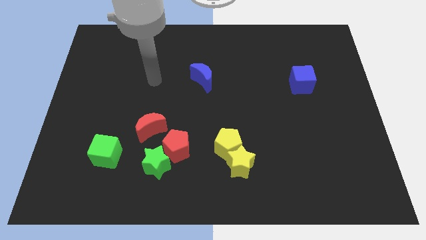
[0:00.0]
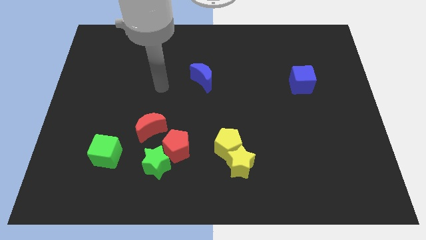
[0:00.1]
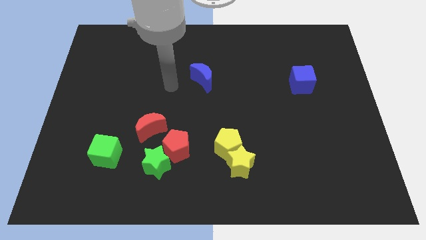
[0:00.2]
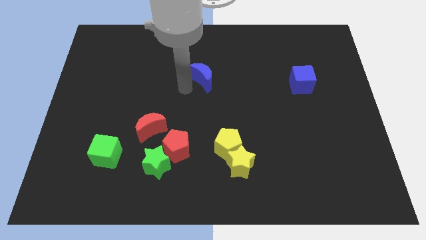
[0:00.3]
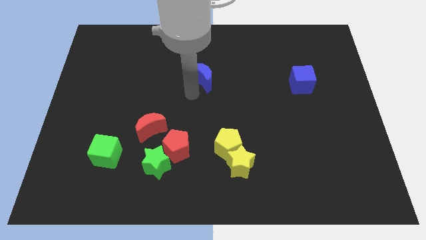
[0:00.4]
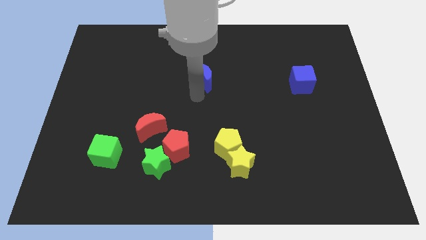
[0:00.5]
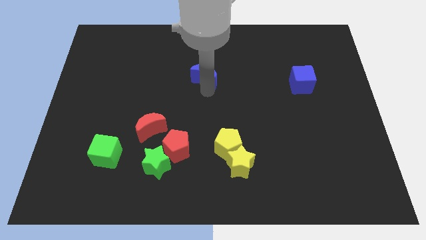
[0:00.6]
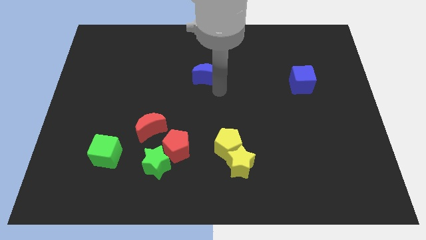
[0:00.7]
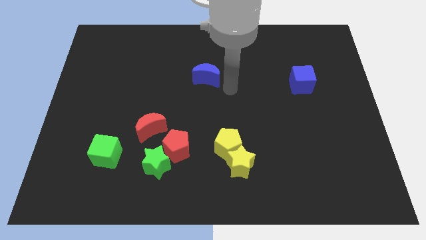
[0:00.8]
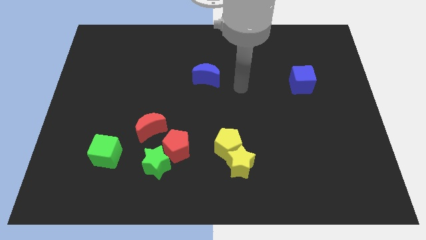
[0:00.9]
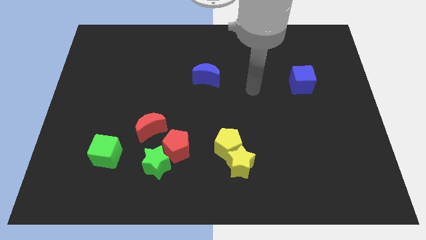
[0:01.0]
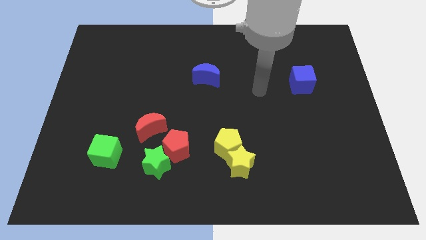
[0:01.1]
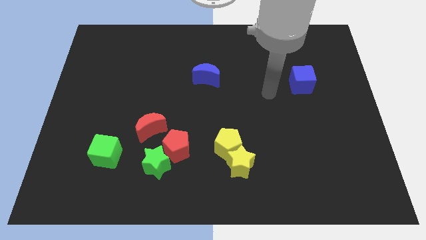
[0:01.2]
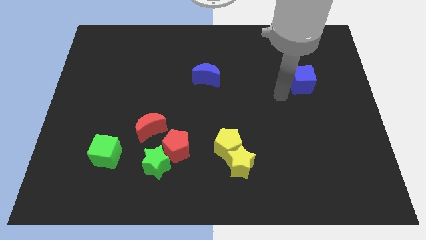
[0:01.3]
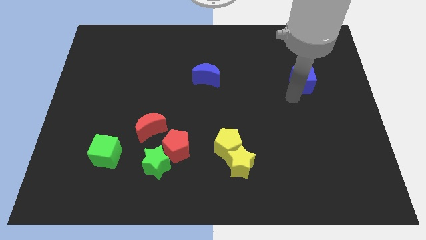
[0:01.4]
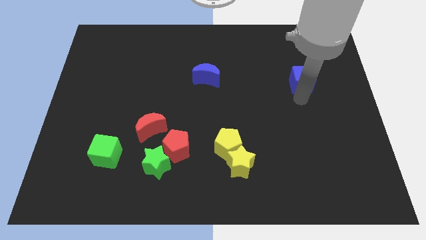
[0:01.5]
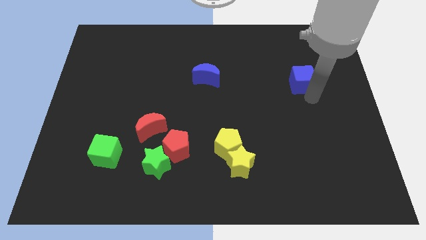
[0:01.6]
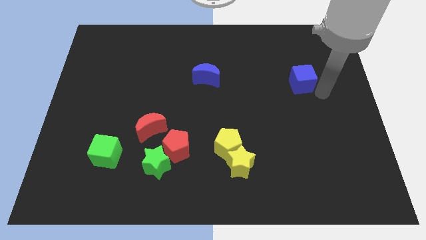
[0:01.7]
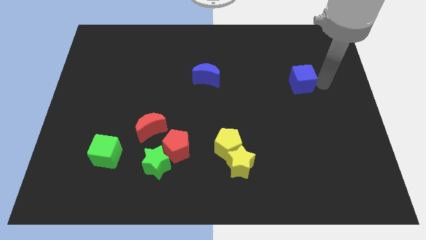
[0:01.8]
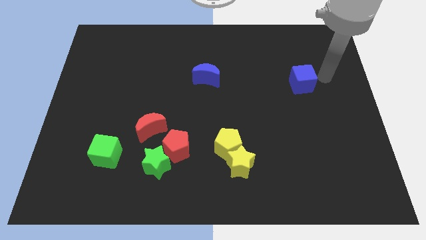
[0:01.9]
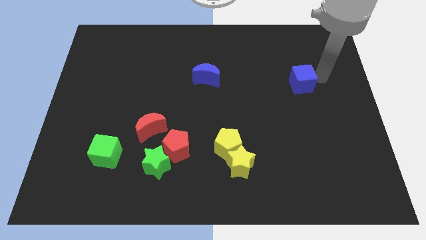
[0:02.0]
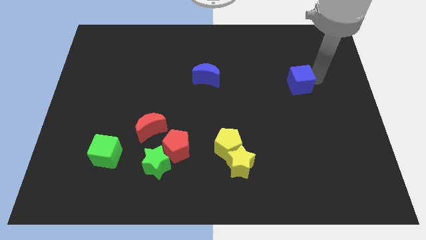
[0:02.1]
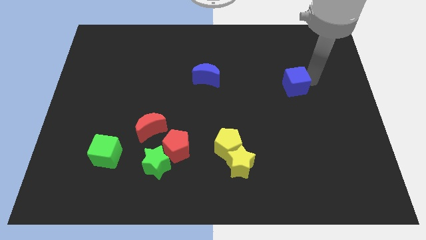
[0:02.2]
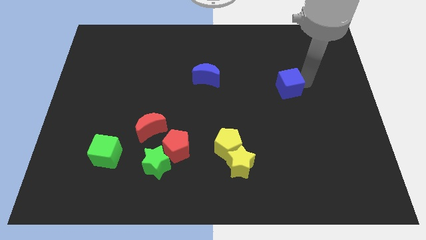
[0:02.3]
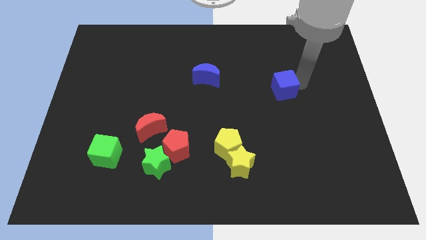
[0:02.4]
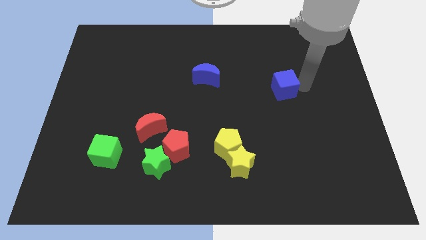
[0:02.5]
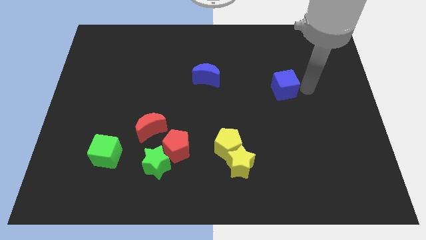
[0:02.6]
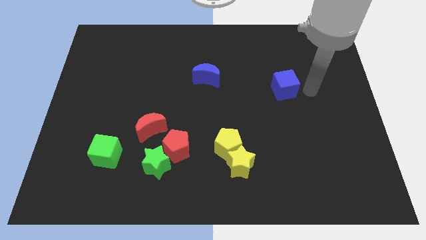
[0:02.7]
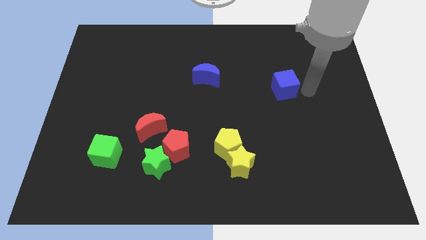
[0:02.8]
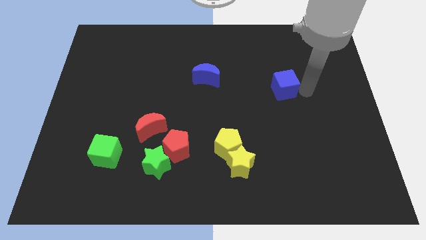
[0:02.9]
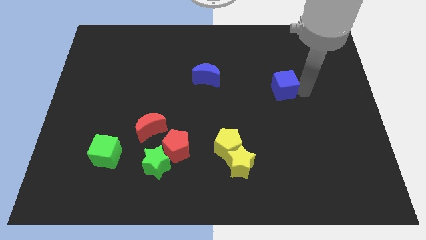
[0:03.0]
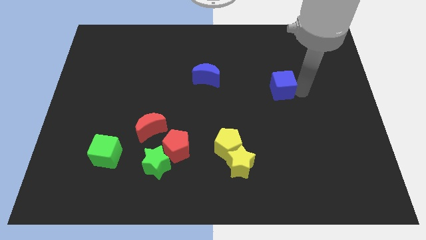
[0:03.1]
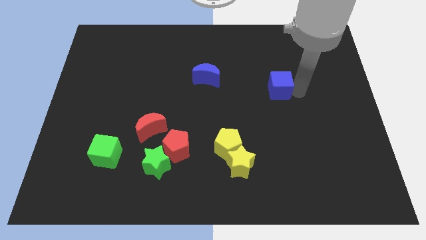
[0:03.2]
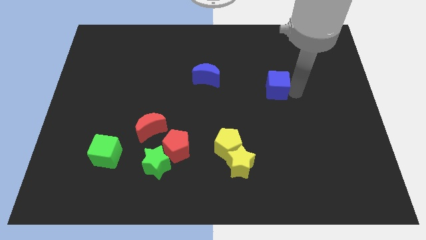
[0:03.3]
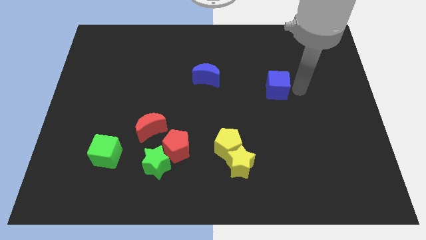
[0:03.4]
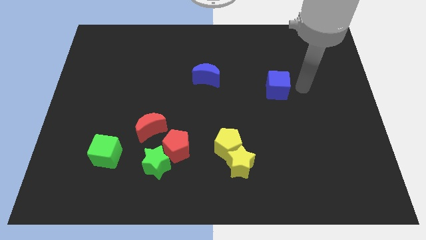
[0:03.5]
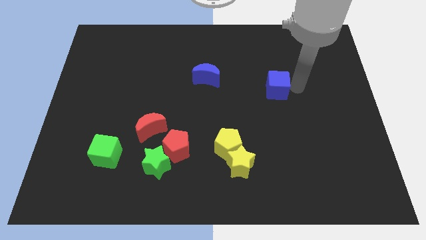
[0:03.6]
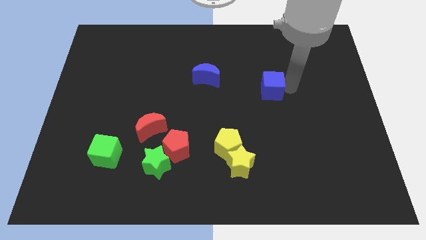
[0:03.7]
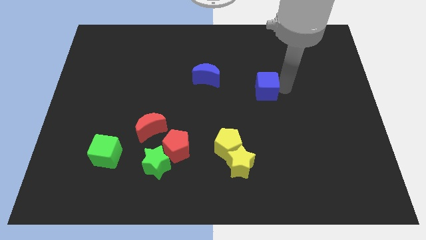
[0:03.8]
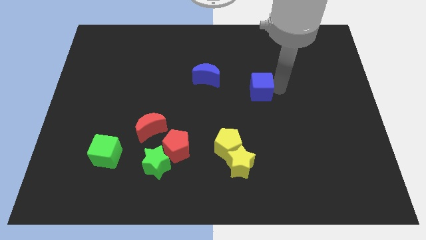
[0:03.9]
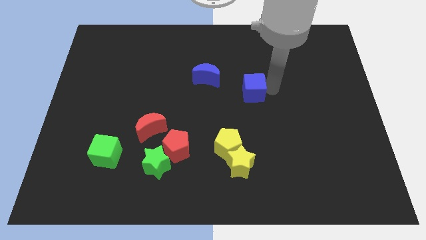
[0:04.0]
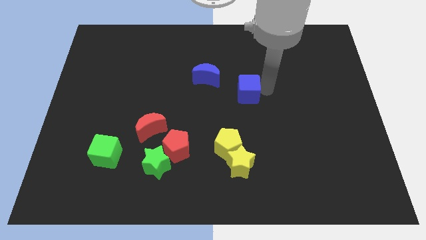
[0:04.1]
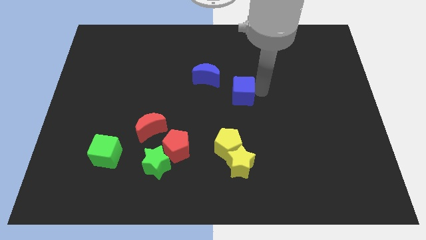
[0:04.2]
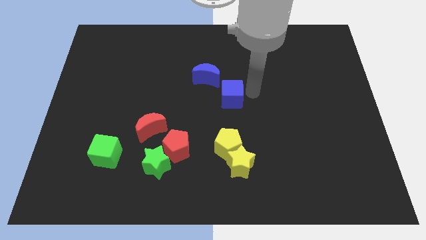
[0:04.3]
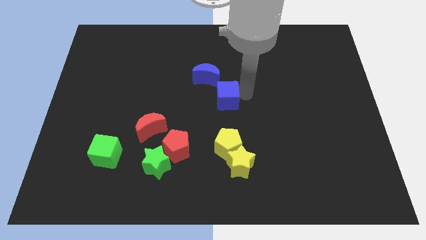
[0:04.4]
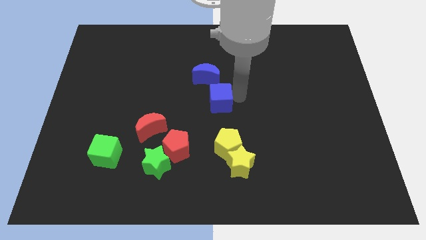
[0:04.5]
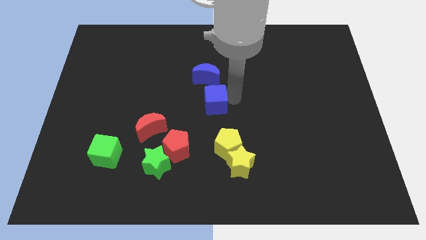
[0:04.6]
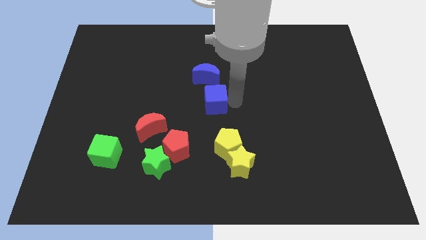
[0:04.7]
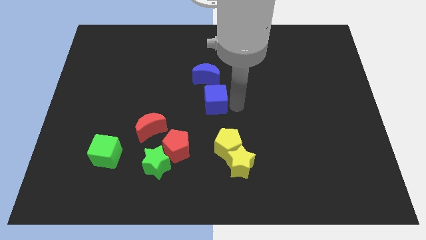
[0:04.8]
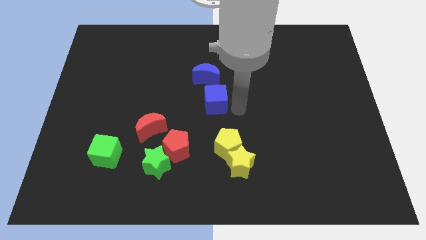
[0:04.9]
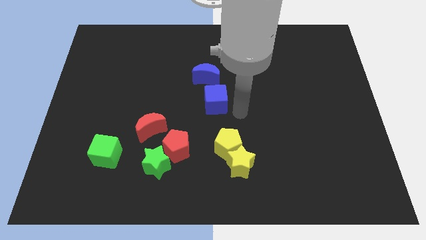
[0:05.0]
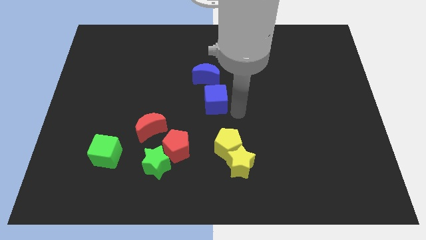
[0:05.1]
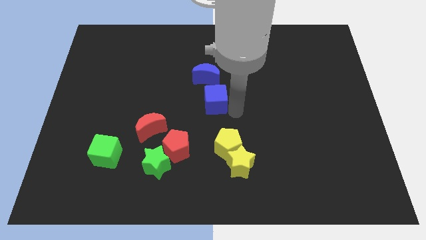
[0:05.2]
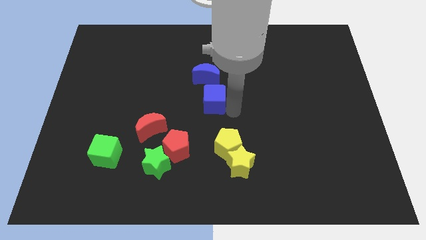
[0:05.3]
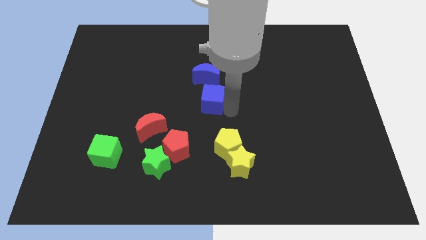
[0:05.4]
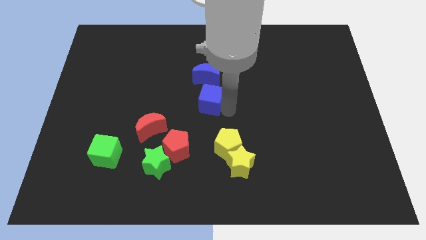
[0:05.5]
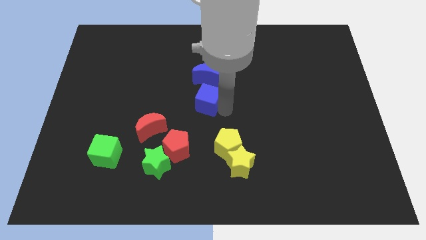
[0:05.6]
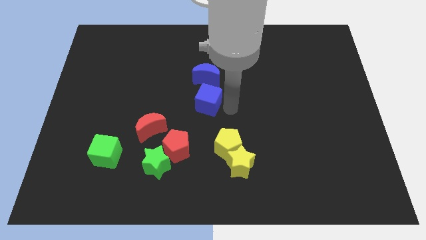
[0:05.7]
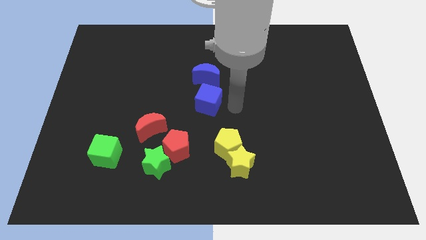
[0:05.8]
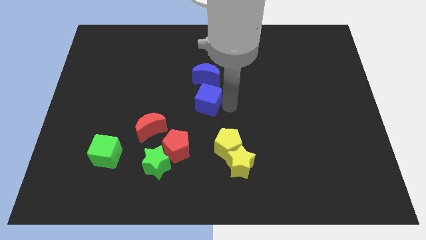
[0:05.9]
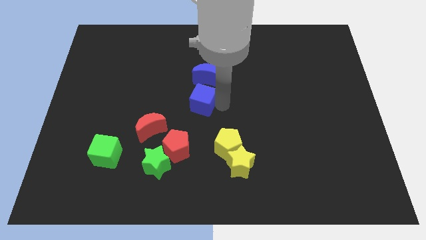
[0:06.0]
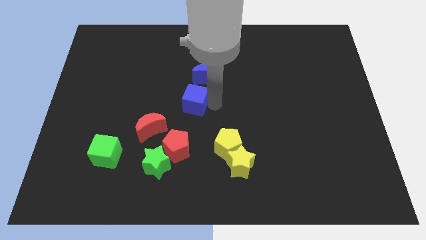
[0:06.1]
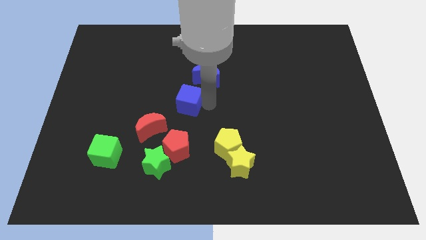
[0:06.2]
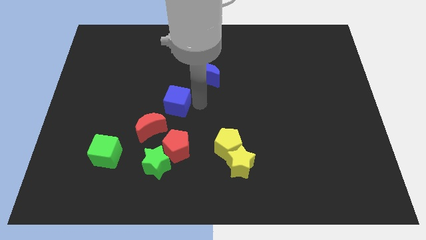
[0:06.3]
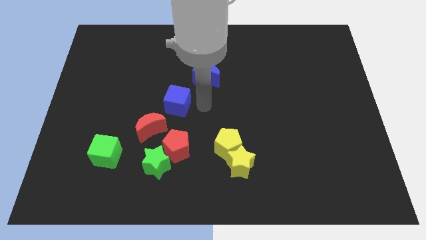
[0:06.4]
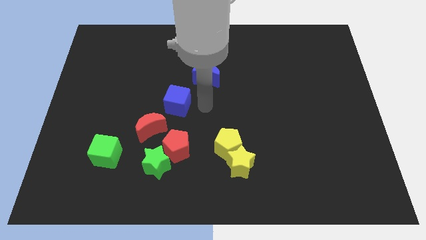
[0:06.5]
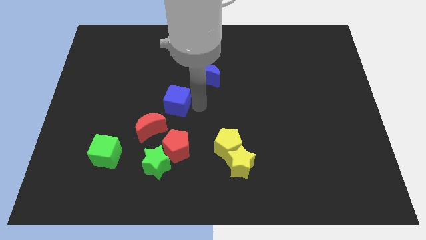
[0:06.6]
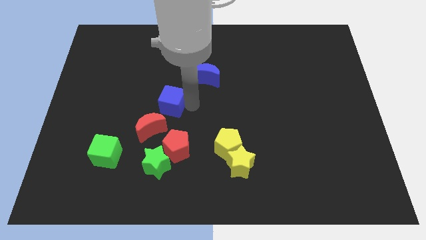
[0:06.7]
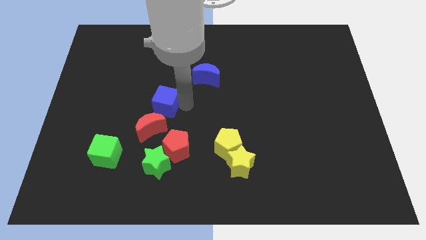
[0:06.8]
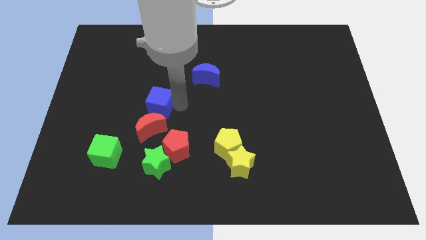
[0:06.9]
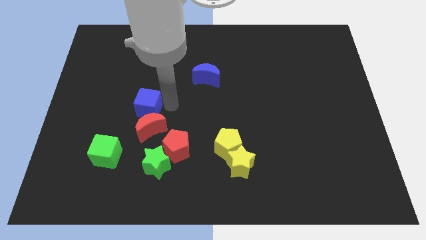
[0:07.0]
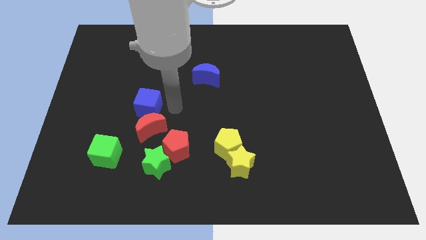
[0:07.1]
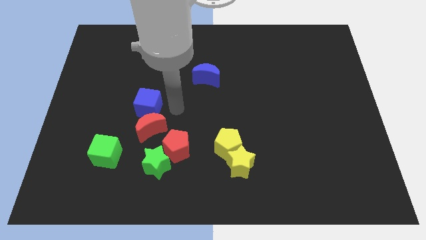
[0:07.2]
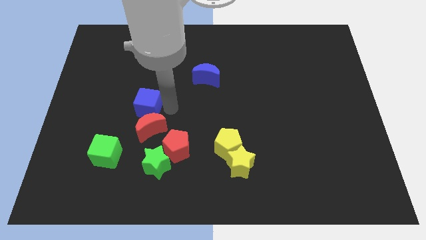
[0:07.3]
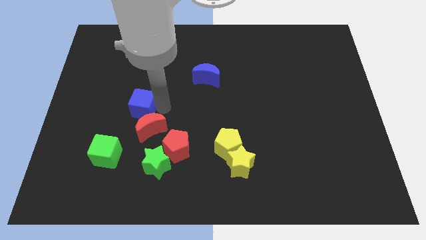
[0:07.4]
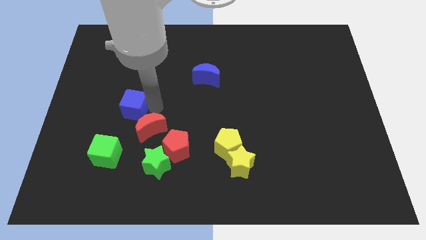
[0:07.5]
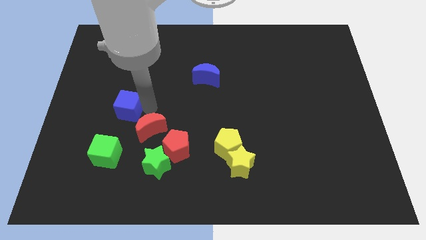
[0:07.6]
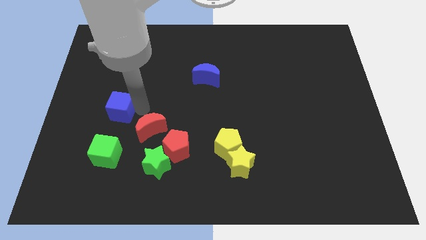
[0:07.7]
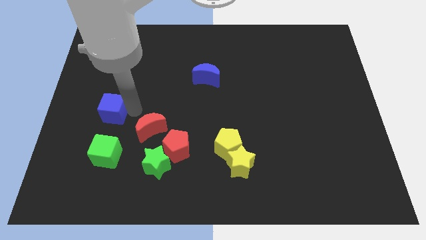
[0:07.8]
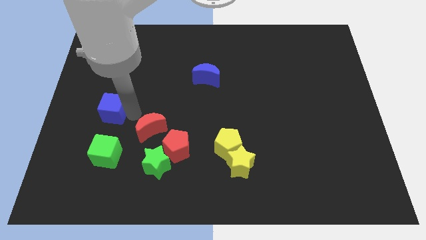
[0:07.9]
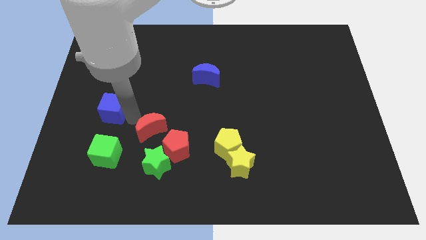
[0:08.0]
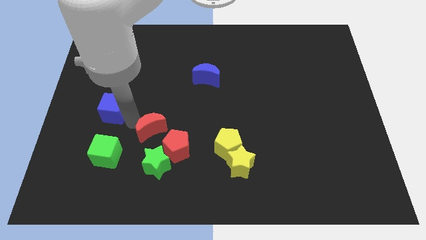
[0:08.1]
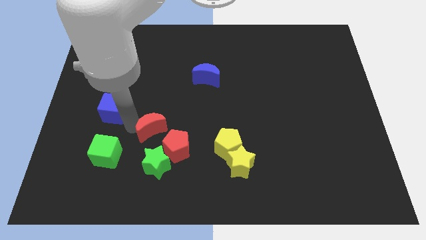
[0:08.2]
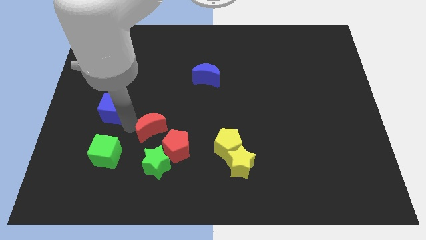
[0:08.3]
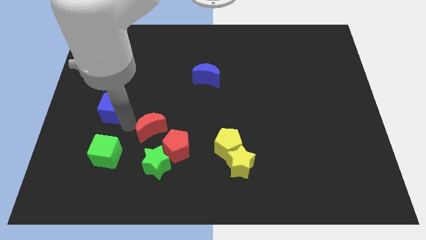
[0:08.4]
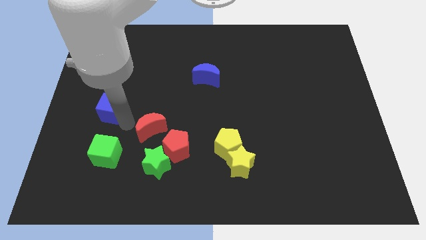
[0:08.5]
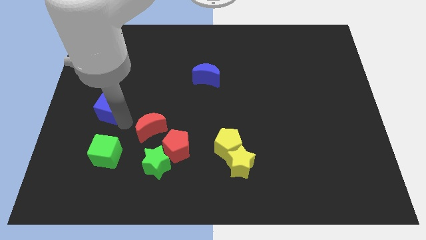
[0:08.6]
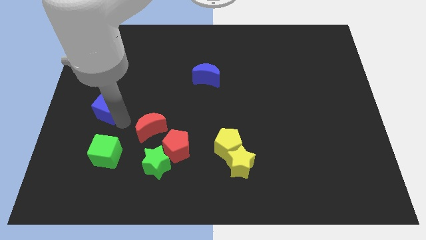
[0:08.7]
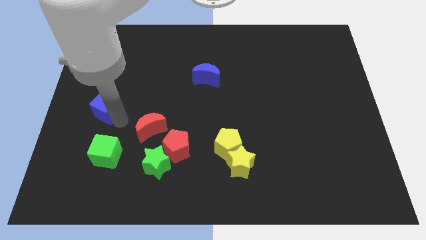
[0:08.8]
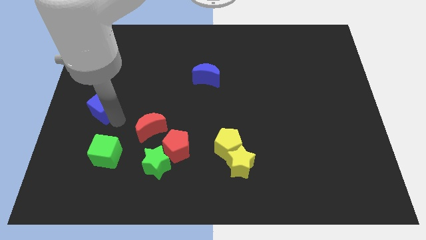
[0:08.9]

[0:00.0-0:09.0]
move the blue cube to the left side
